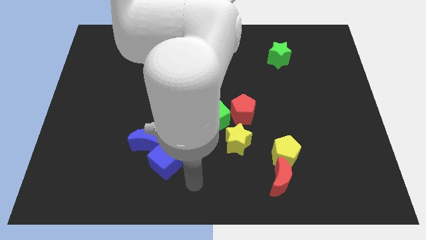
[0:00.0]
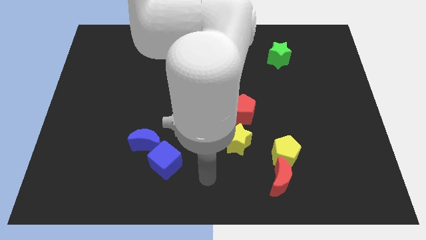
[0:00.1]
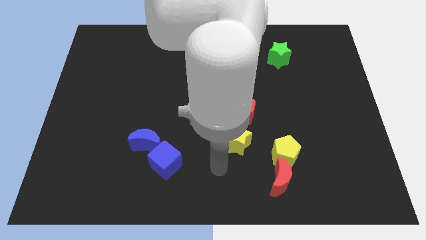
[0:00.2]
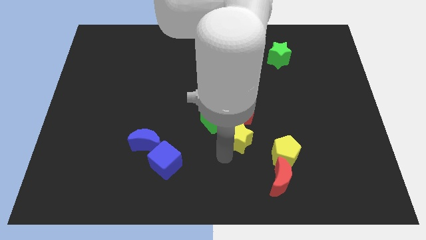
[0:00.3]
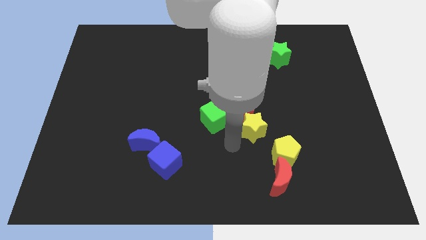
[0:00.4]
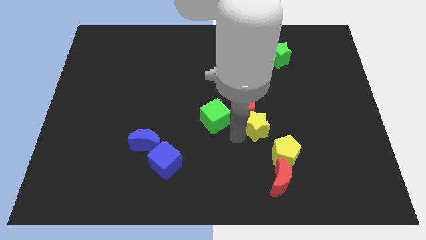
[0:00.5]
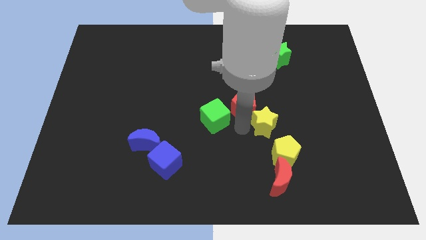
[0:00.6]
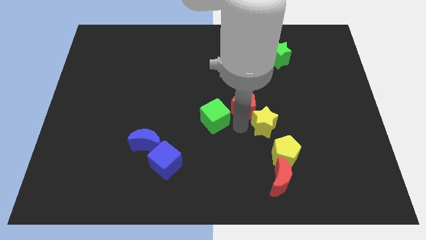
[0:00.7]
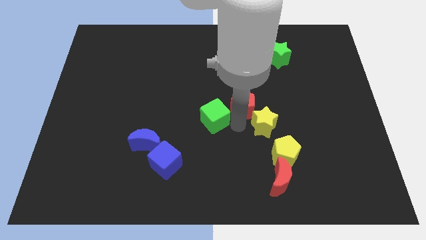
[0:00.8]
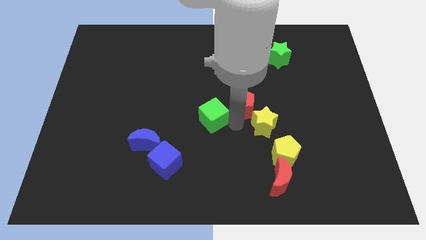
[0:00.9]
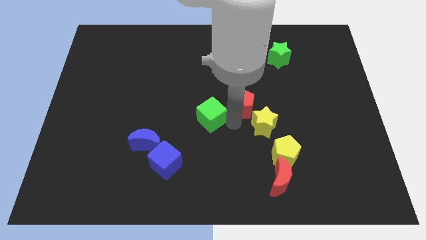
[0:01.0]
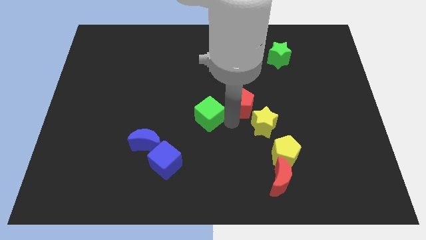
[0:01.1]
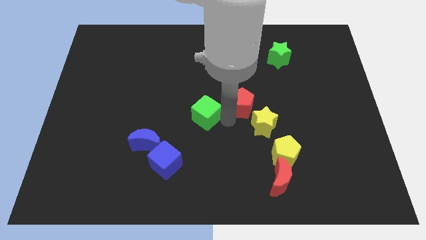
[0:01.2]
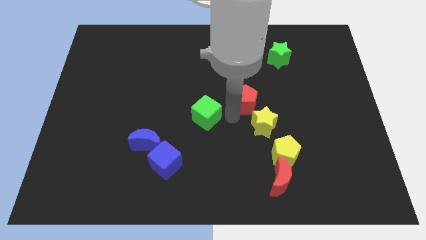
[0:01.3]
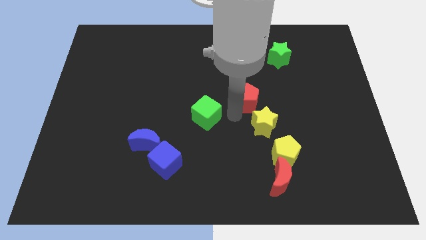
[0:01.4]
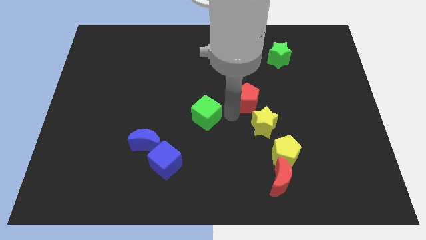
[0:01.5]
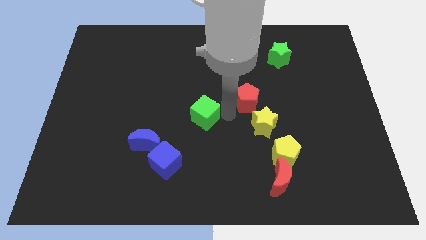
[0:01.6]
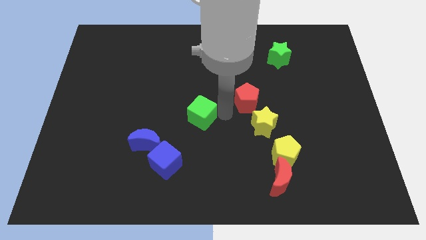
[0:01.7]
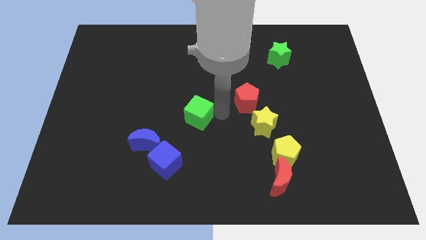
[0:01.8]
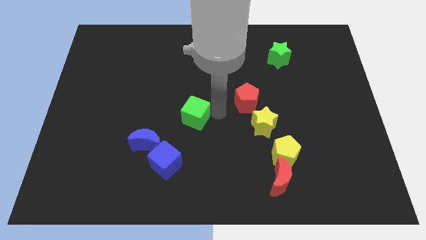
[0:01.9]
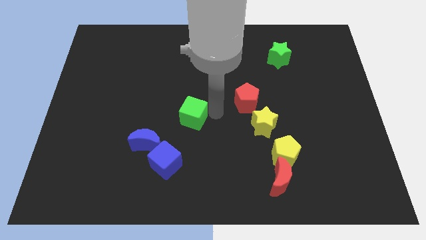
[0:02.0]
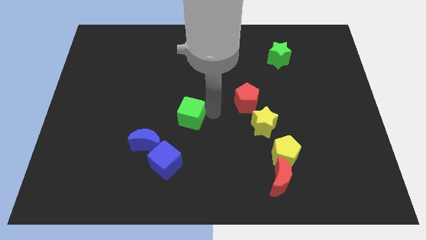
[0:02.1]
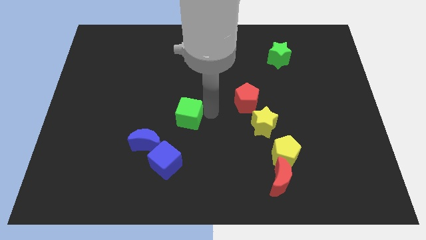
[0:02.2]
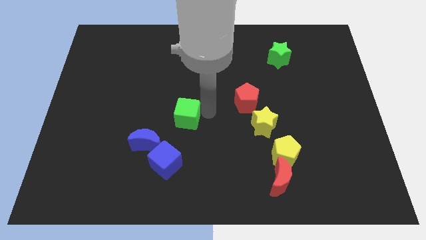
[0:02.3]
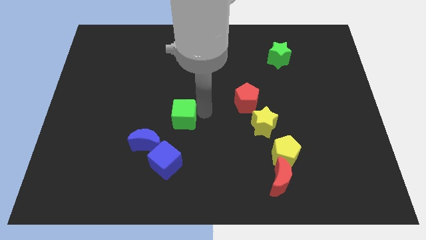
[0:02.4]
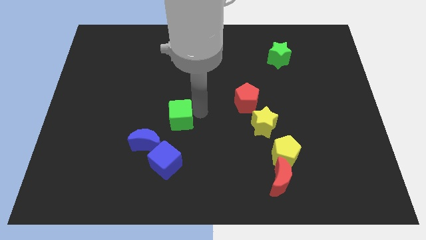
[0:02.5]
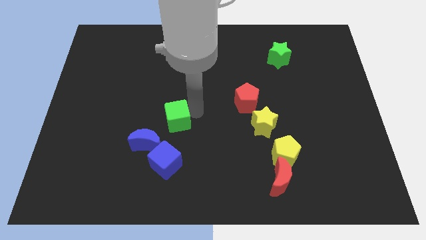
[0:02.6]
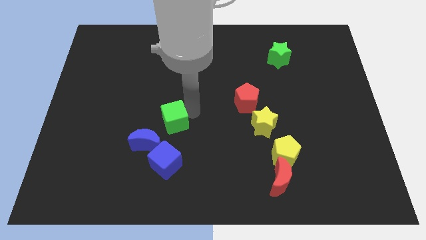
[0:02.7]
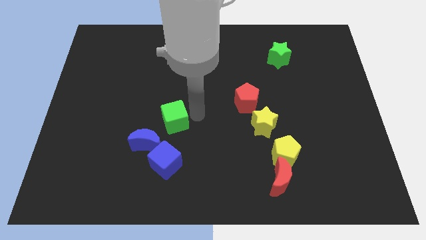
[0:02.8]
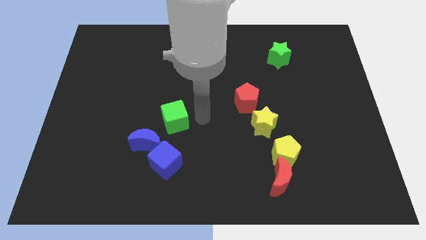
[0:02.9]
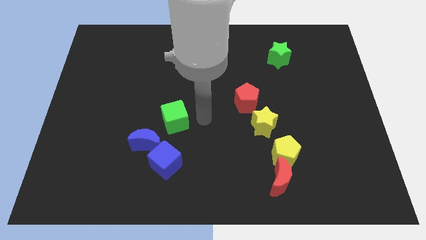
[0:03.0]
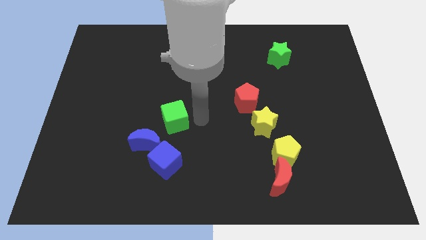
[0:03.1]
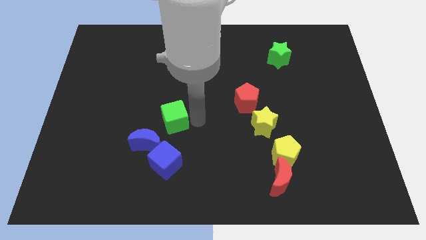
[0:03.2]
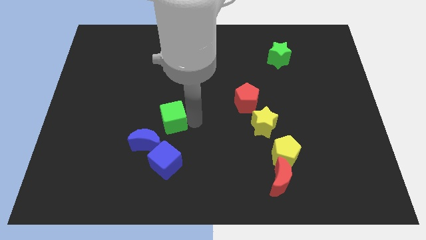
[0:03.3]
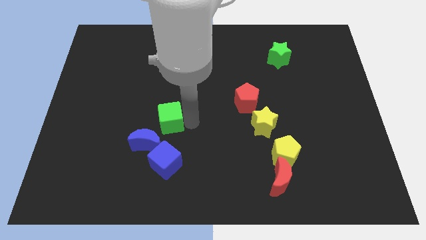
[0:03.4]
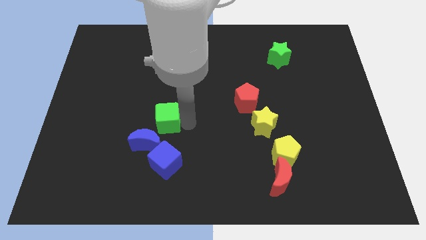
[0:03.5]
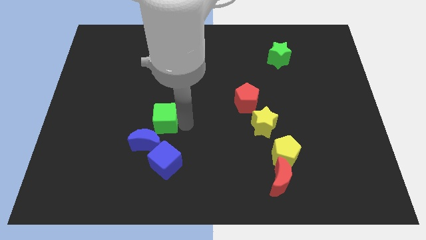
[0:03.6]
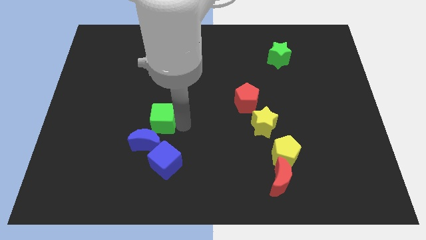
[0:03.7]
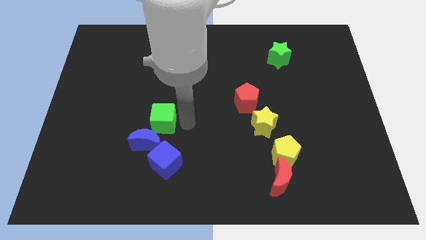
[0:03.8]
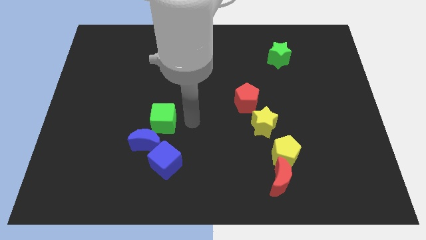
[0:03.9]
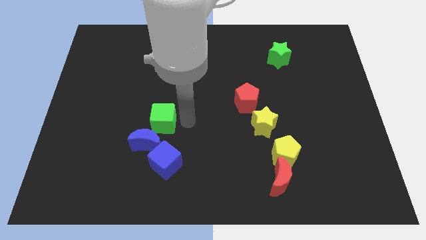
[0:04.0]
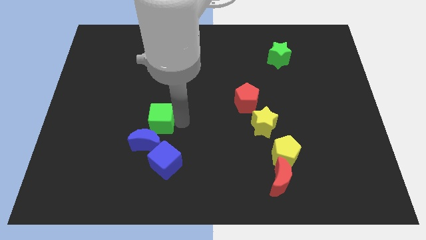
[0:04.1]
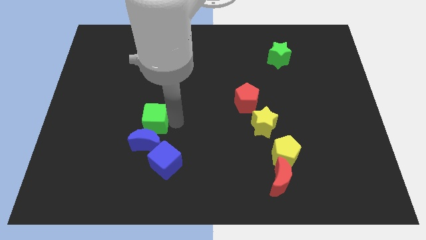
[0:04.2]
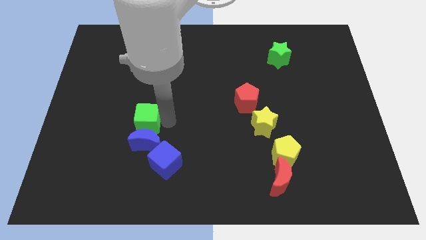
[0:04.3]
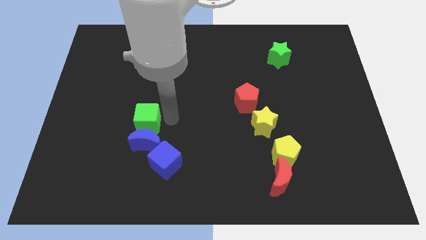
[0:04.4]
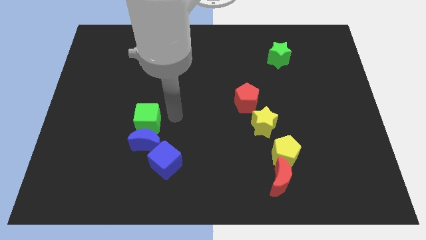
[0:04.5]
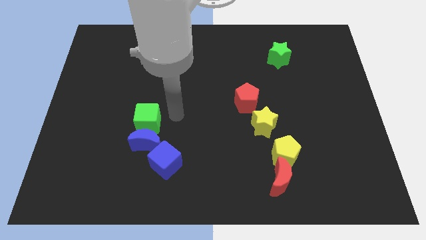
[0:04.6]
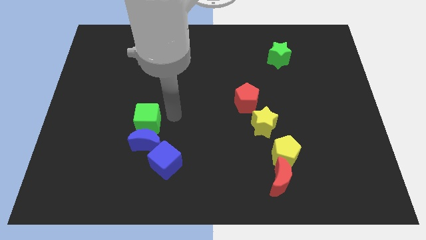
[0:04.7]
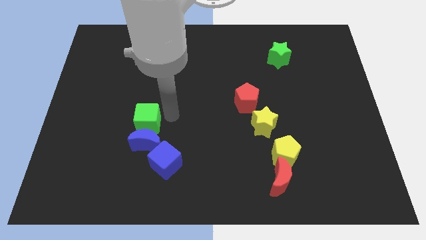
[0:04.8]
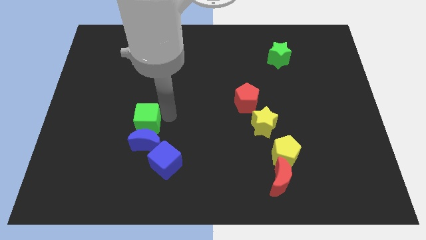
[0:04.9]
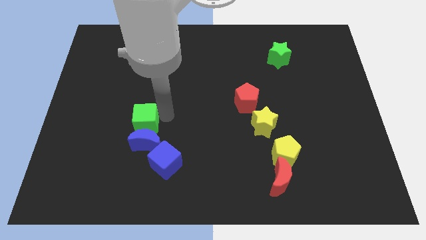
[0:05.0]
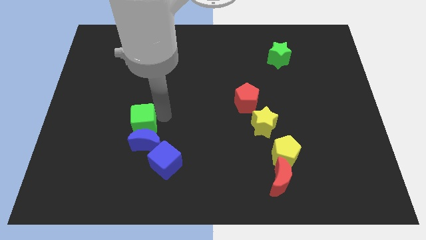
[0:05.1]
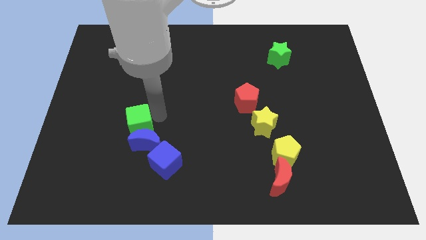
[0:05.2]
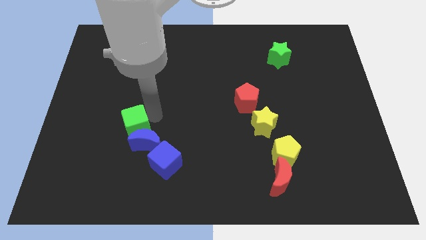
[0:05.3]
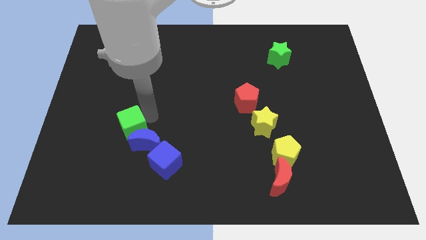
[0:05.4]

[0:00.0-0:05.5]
push the green cube to the left of the blue moon

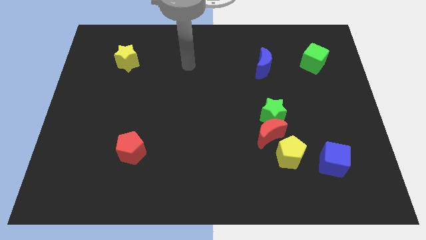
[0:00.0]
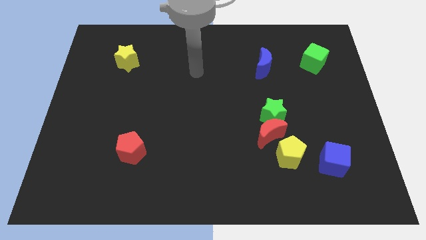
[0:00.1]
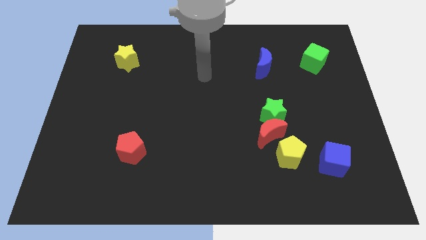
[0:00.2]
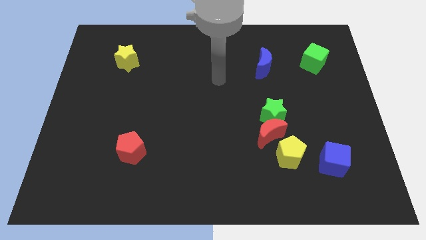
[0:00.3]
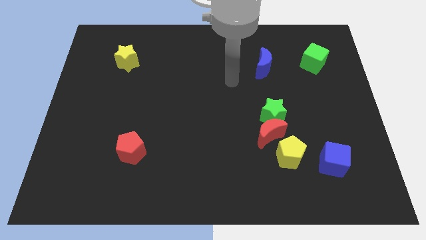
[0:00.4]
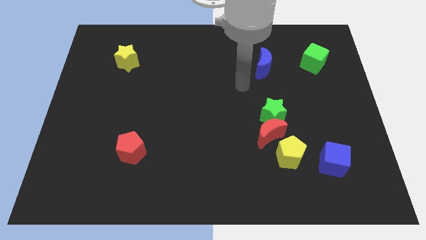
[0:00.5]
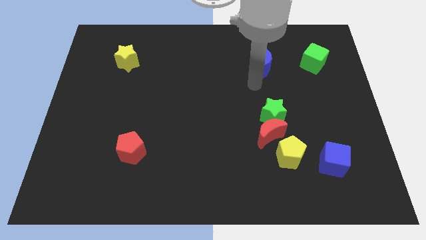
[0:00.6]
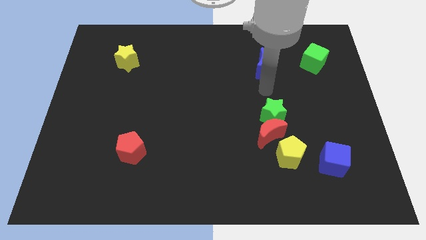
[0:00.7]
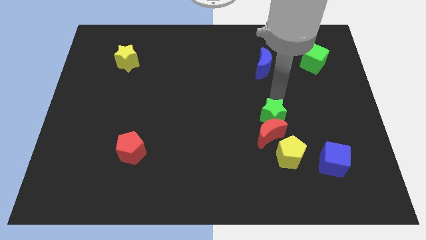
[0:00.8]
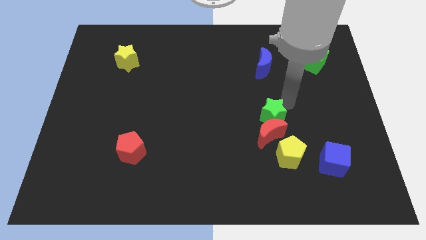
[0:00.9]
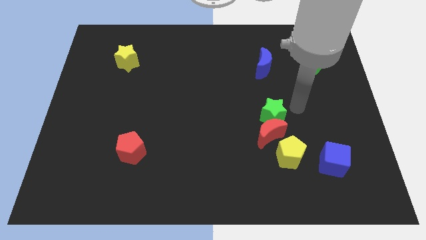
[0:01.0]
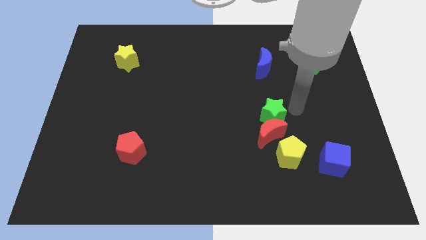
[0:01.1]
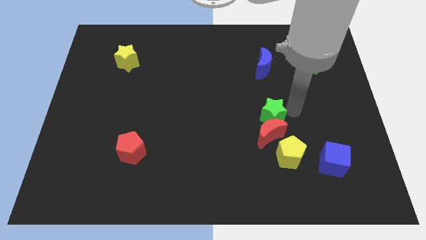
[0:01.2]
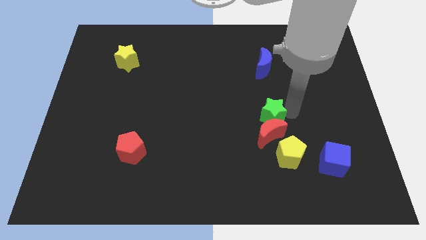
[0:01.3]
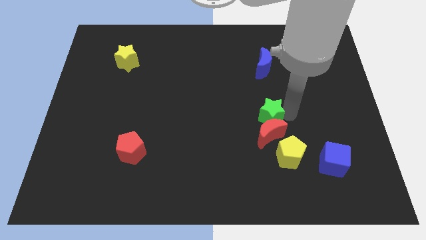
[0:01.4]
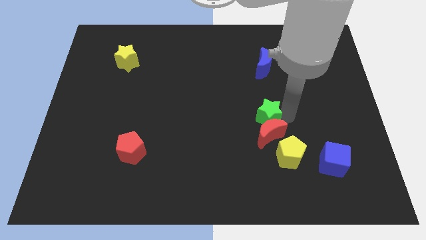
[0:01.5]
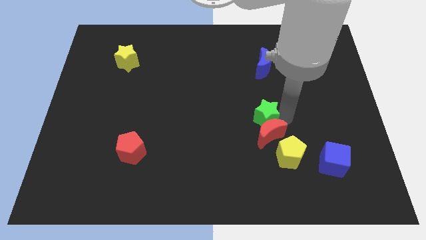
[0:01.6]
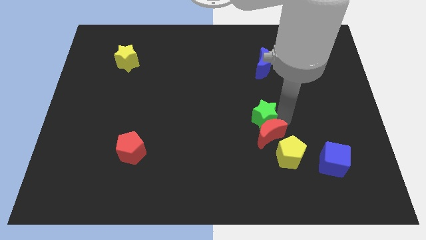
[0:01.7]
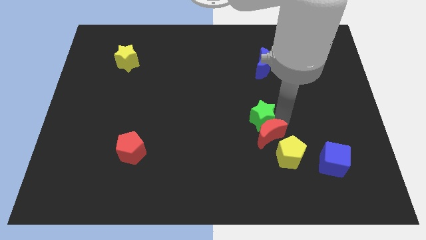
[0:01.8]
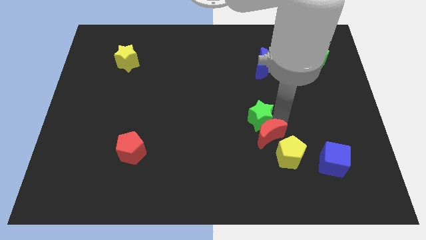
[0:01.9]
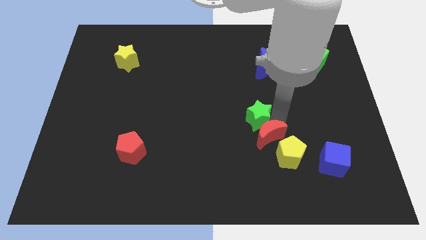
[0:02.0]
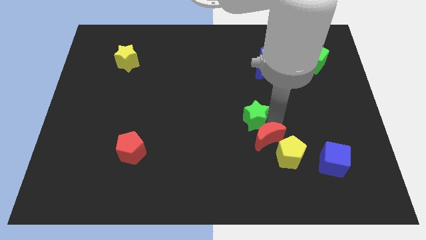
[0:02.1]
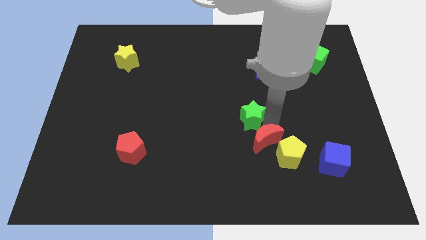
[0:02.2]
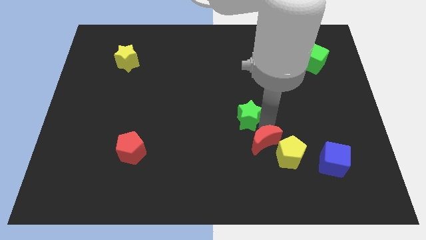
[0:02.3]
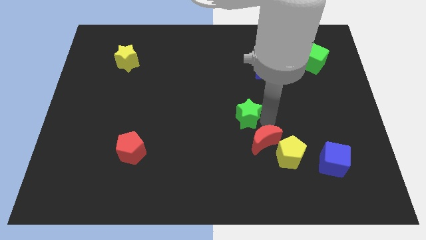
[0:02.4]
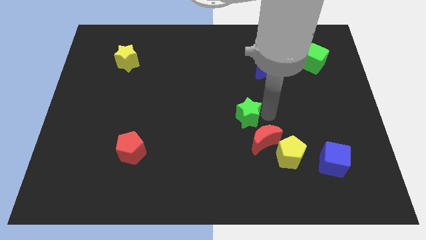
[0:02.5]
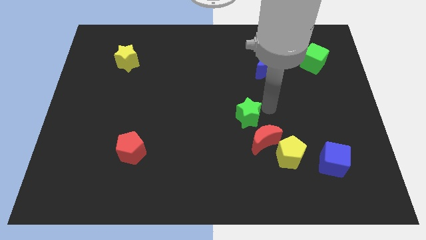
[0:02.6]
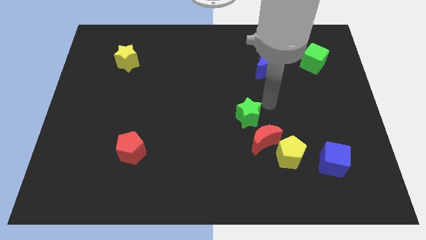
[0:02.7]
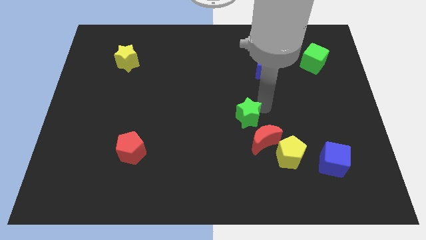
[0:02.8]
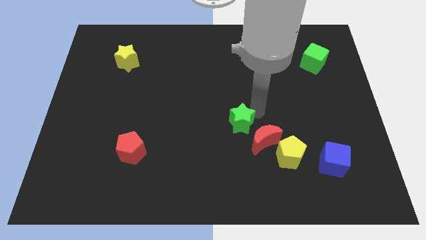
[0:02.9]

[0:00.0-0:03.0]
move the green star just left of the red moon
